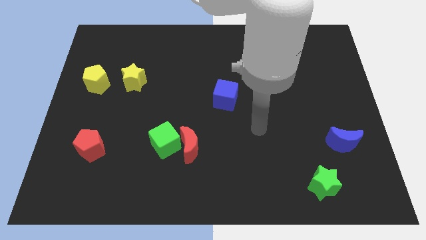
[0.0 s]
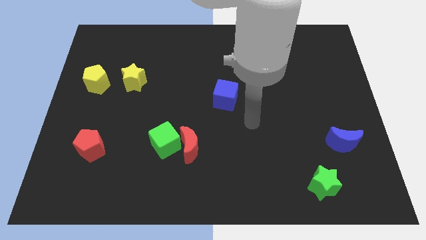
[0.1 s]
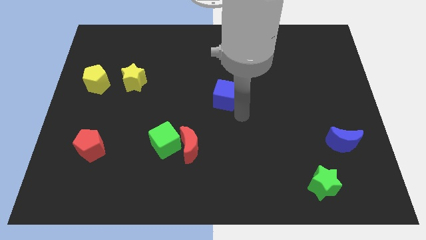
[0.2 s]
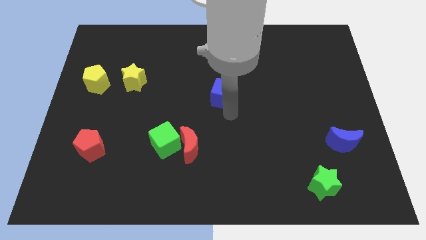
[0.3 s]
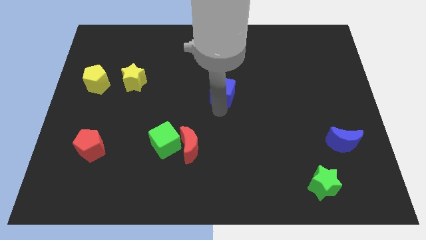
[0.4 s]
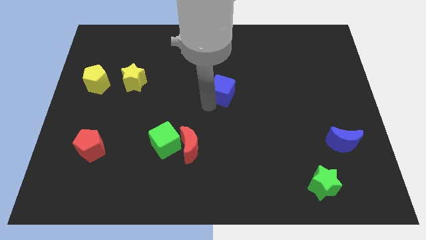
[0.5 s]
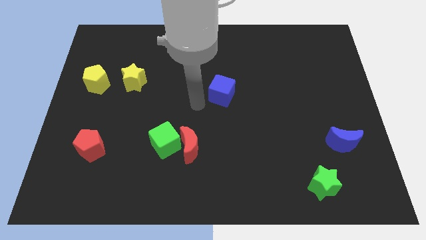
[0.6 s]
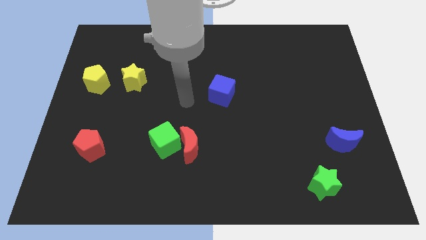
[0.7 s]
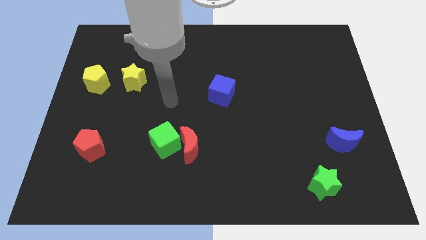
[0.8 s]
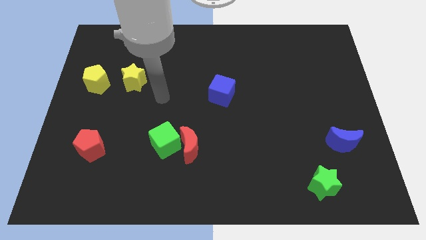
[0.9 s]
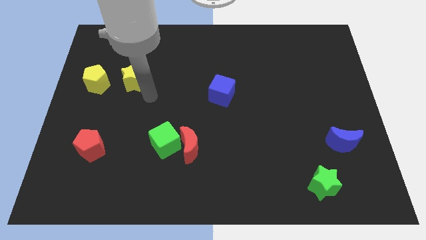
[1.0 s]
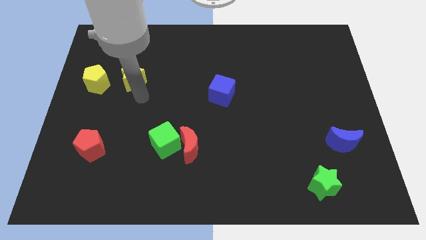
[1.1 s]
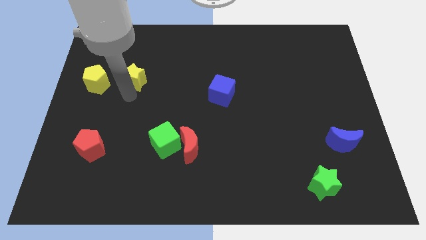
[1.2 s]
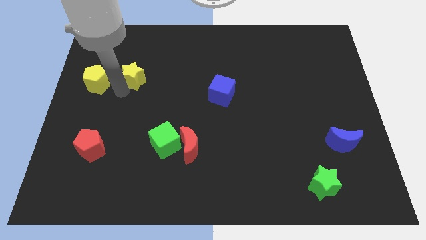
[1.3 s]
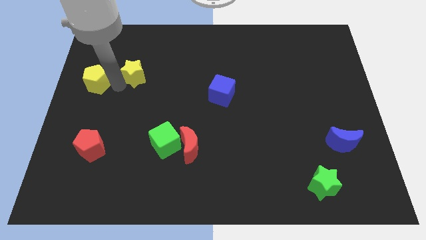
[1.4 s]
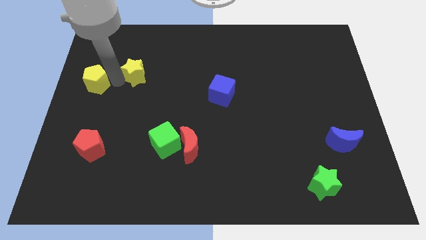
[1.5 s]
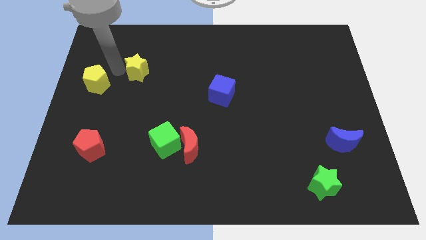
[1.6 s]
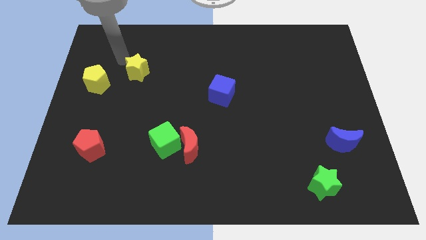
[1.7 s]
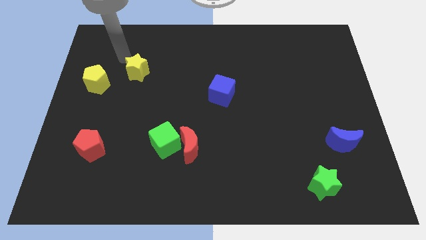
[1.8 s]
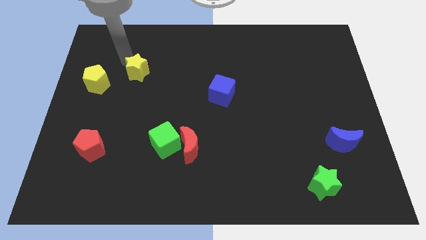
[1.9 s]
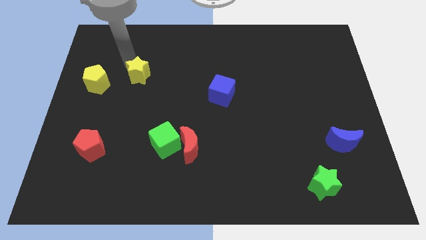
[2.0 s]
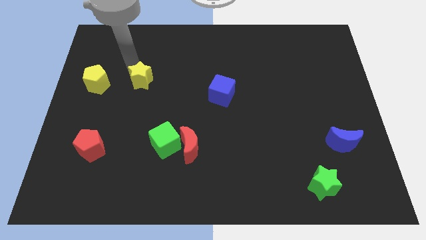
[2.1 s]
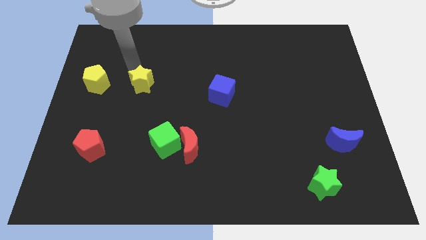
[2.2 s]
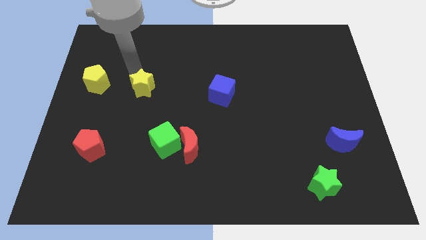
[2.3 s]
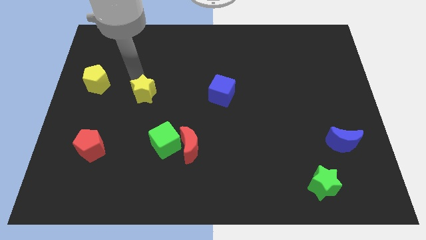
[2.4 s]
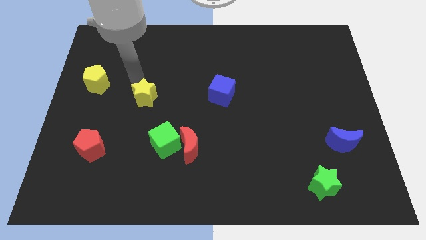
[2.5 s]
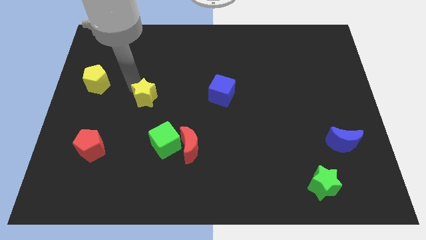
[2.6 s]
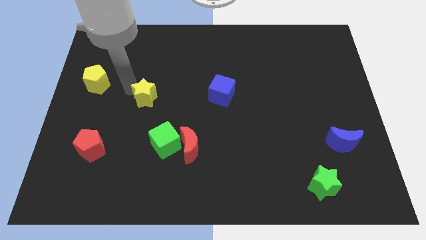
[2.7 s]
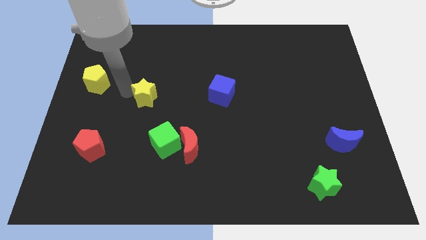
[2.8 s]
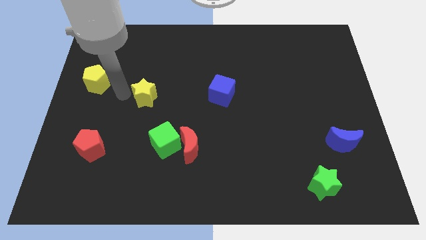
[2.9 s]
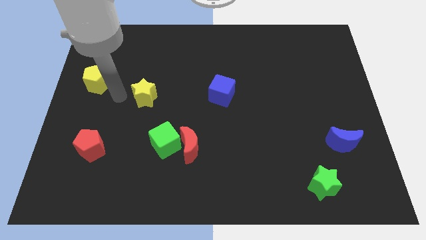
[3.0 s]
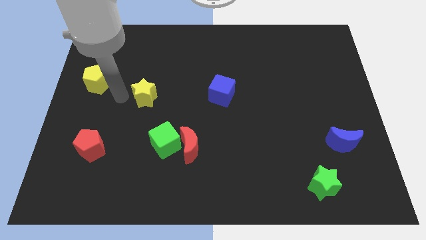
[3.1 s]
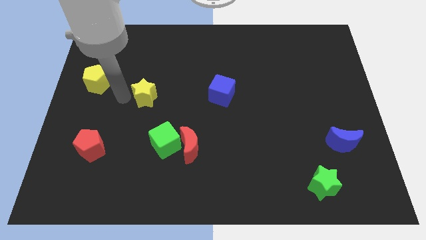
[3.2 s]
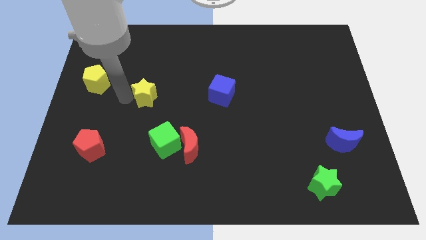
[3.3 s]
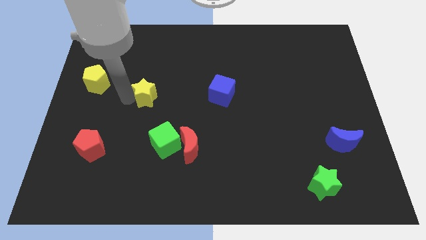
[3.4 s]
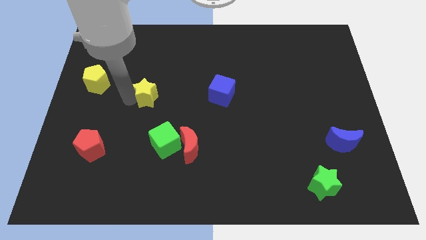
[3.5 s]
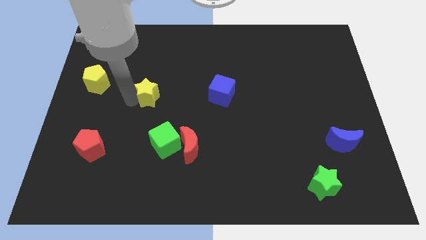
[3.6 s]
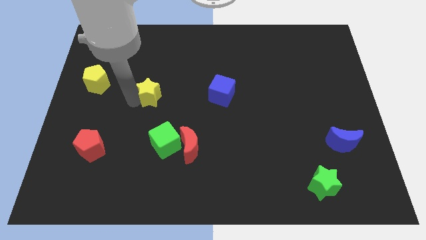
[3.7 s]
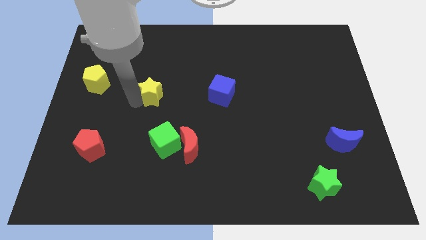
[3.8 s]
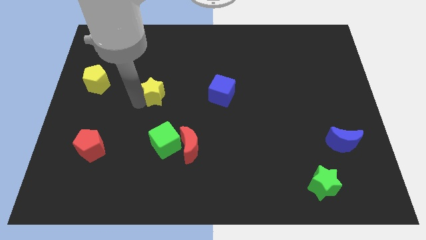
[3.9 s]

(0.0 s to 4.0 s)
push the yellow star somewhat diagonally downwards and to the right

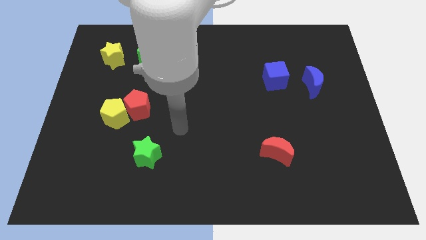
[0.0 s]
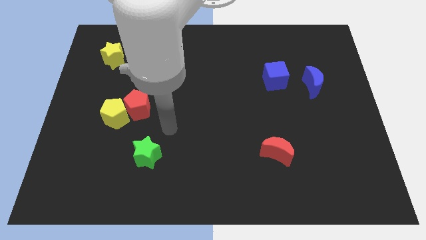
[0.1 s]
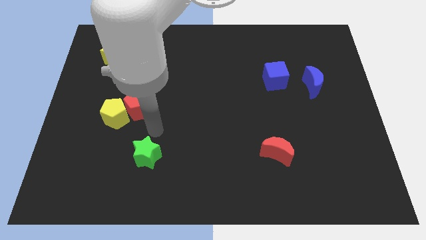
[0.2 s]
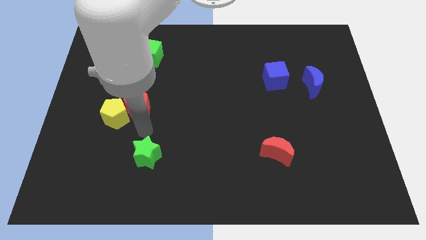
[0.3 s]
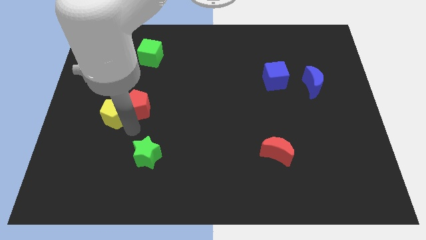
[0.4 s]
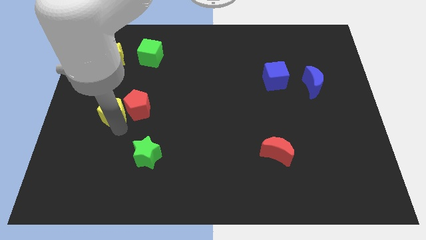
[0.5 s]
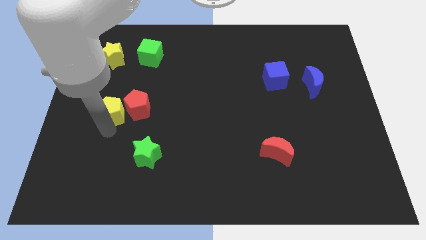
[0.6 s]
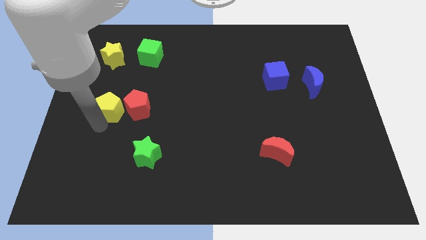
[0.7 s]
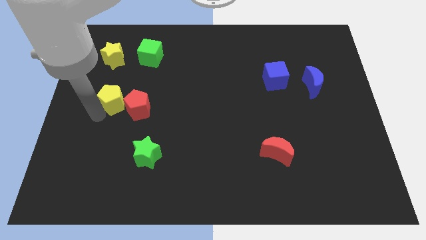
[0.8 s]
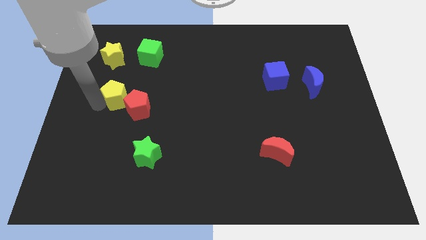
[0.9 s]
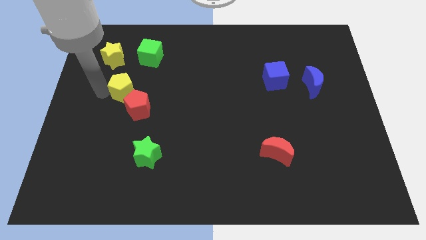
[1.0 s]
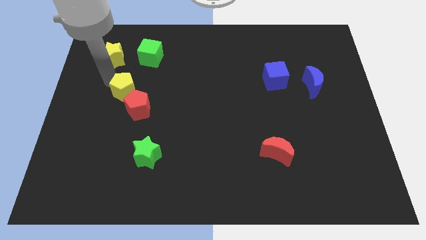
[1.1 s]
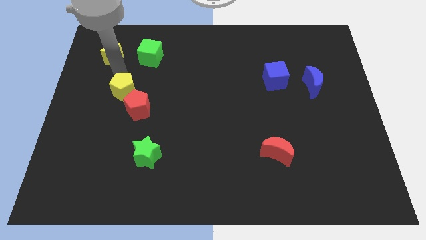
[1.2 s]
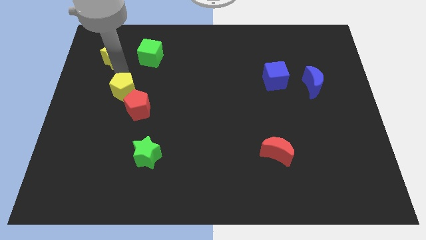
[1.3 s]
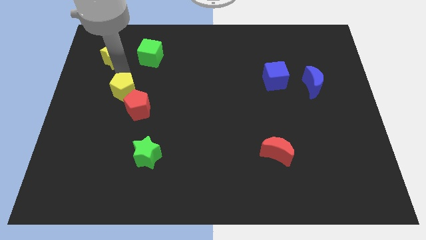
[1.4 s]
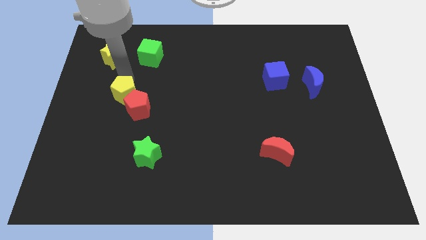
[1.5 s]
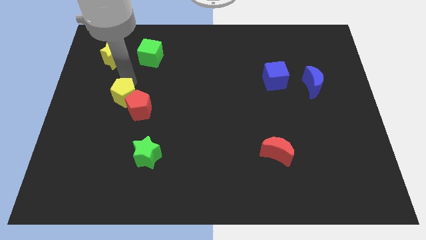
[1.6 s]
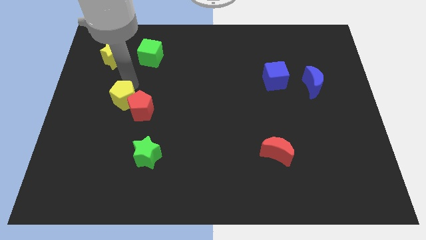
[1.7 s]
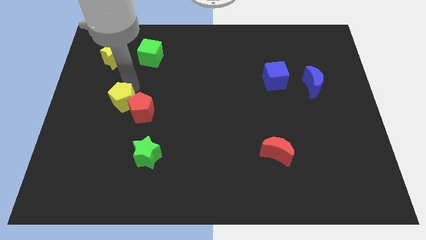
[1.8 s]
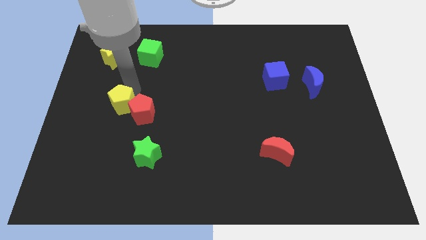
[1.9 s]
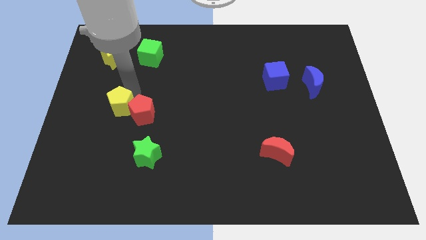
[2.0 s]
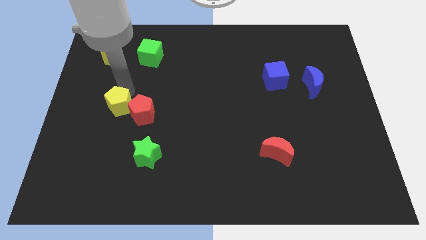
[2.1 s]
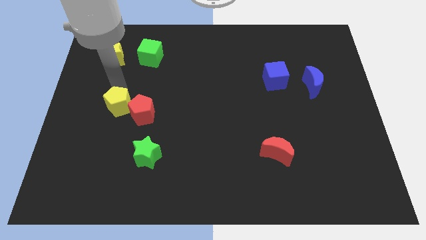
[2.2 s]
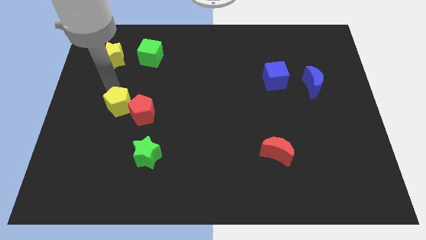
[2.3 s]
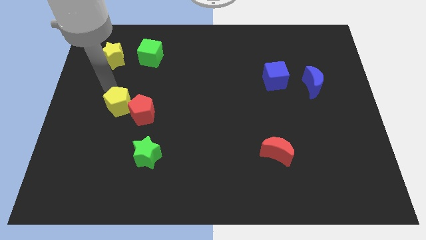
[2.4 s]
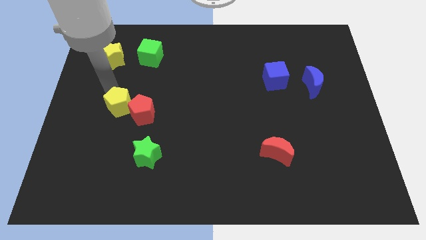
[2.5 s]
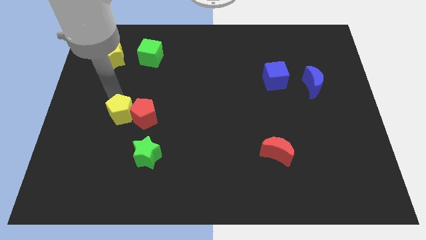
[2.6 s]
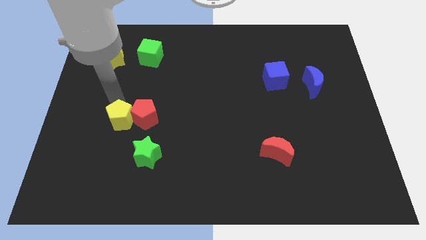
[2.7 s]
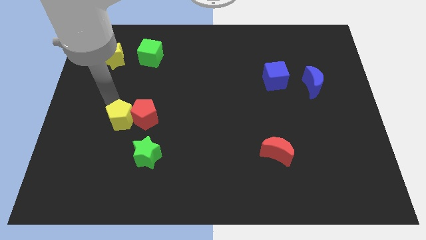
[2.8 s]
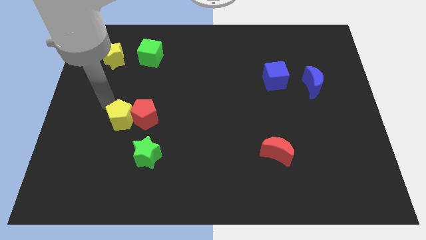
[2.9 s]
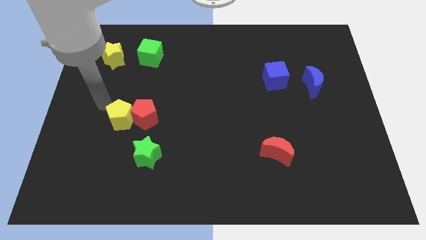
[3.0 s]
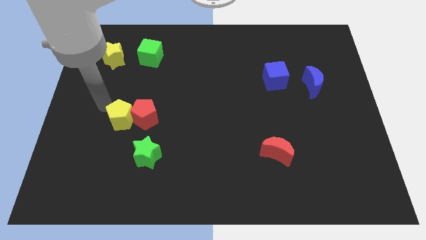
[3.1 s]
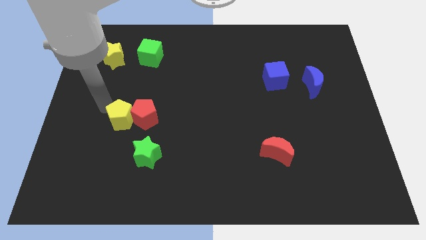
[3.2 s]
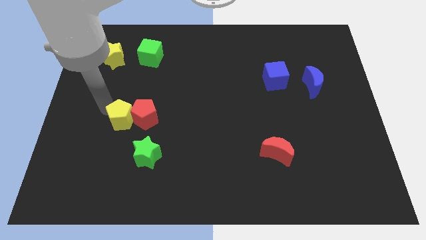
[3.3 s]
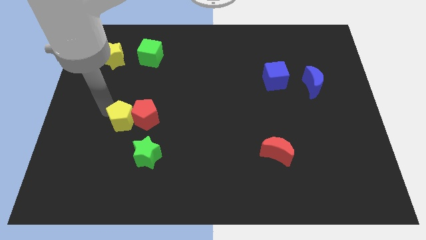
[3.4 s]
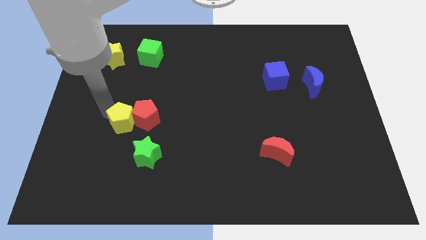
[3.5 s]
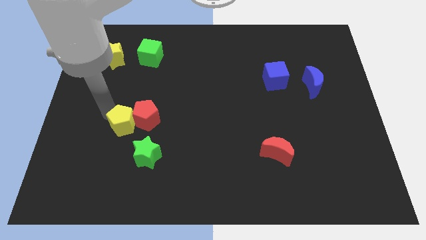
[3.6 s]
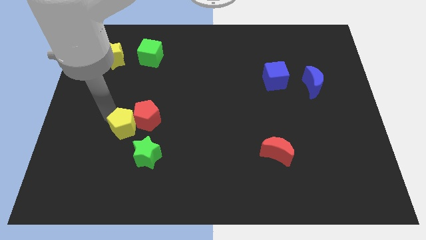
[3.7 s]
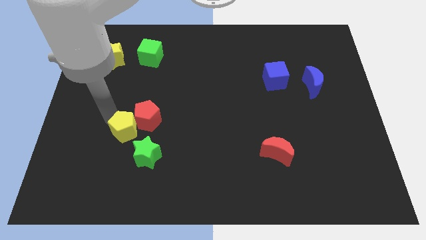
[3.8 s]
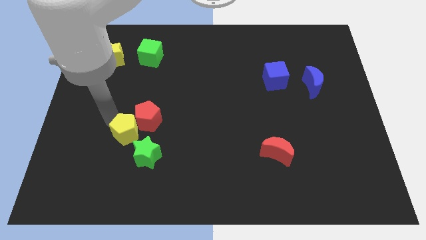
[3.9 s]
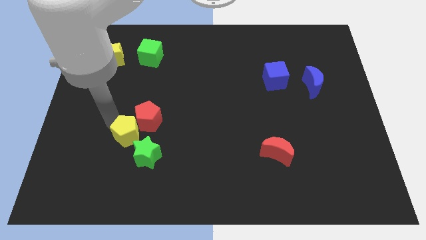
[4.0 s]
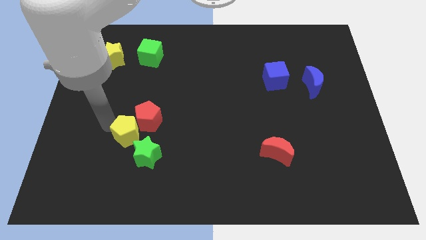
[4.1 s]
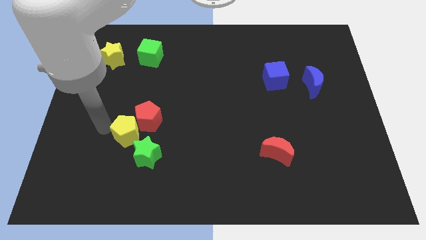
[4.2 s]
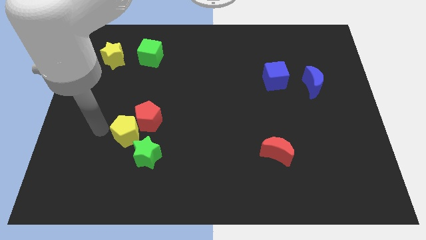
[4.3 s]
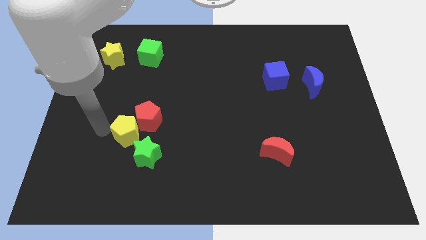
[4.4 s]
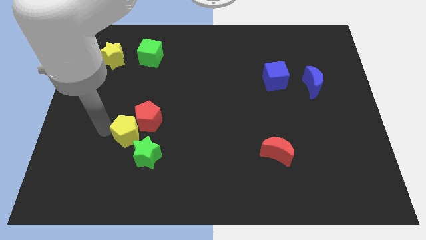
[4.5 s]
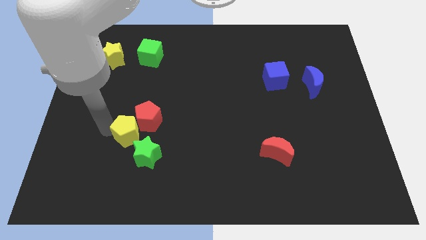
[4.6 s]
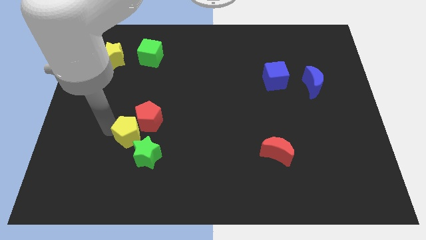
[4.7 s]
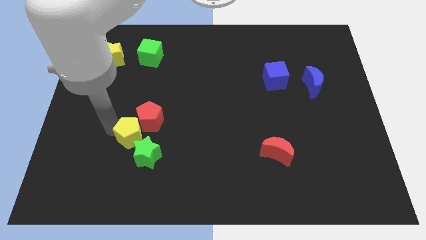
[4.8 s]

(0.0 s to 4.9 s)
slide the yellow pentagon a little diagonally down and right
